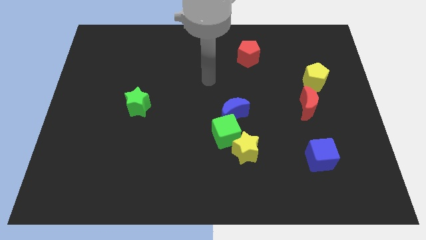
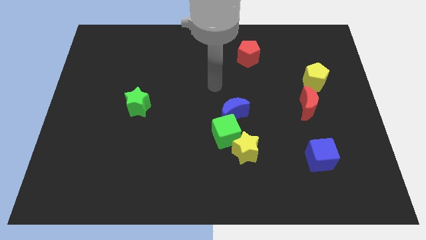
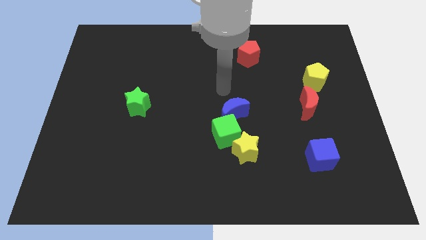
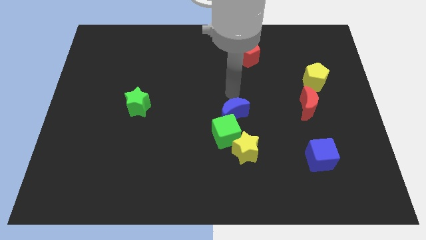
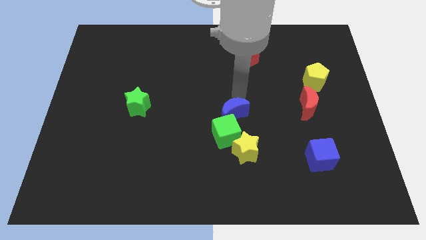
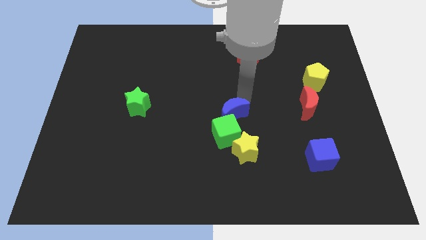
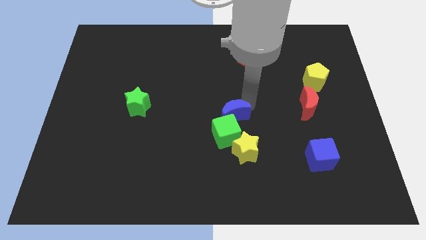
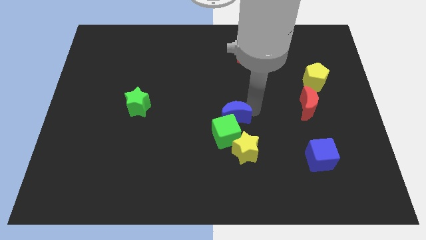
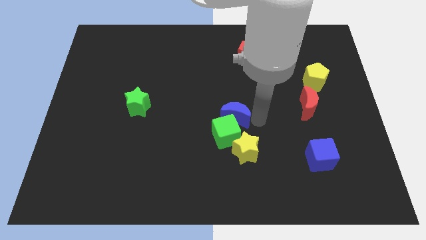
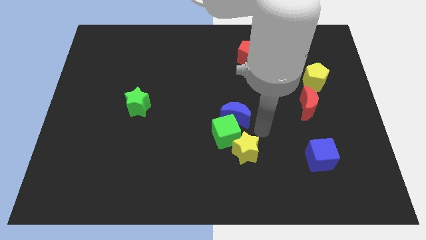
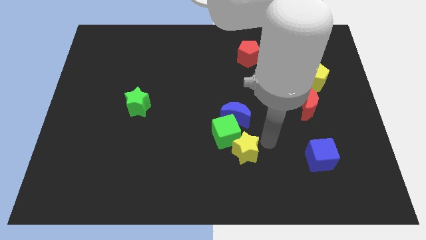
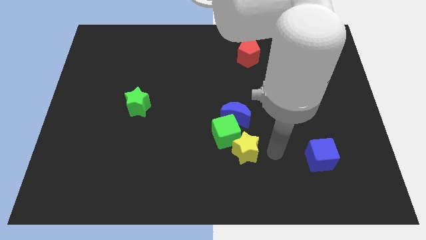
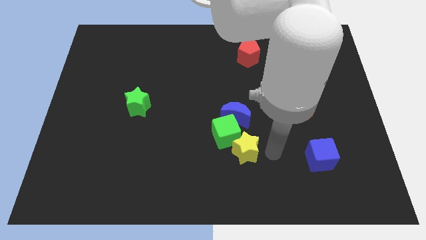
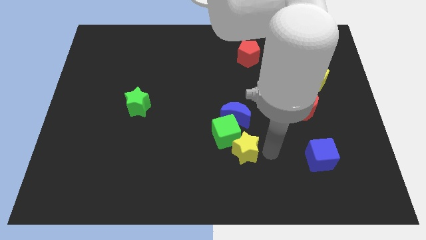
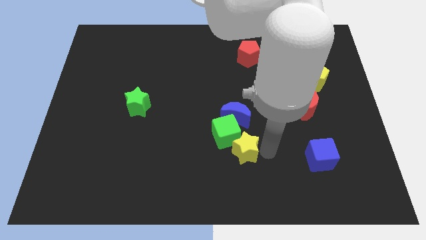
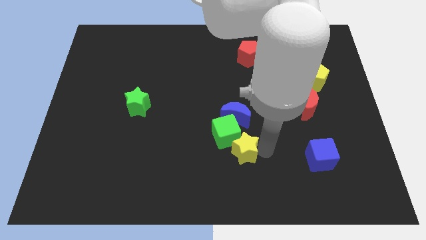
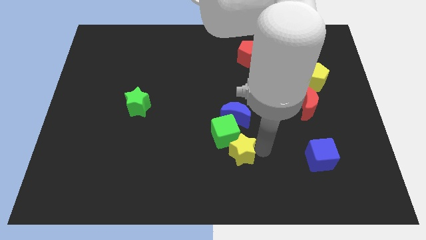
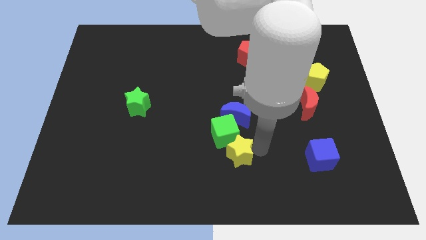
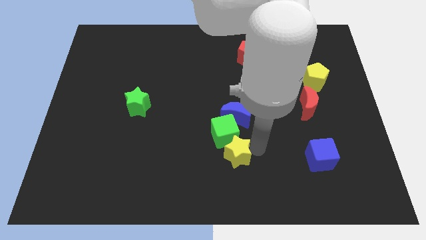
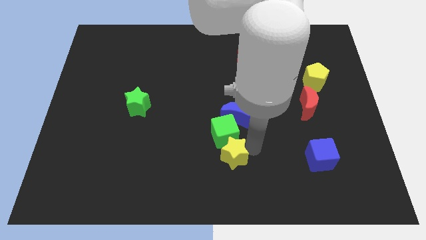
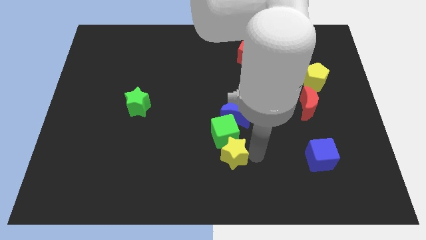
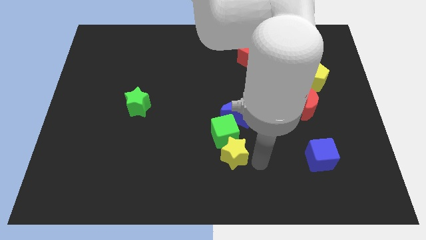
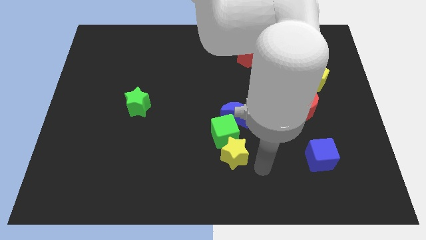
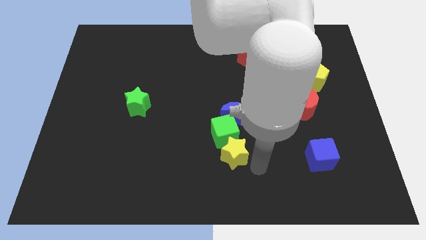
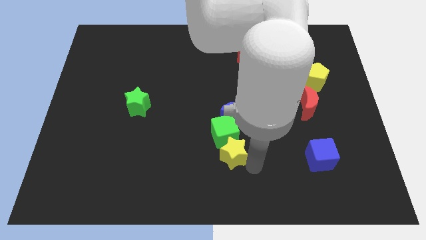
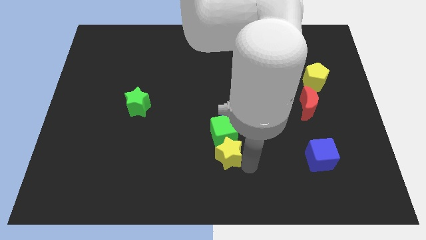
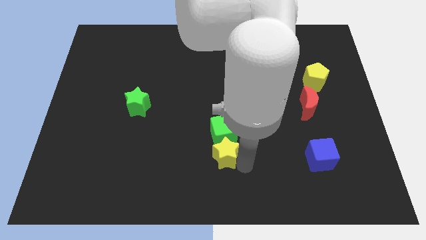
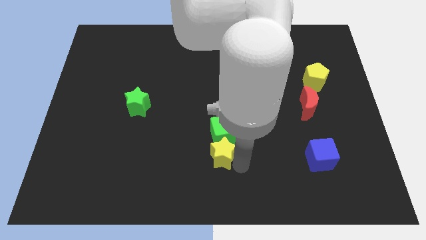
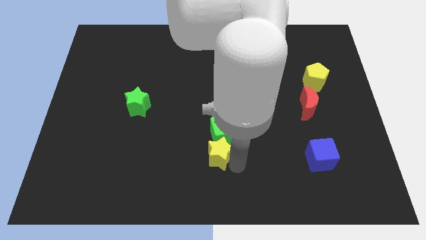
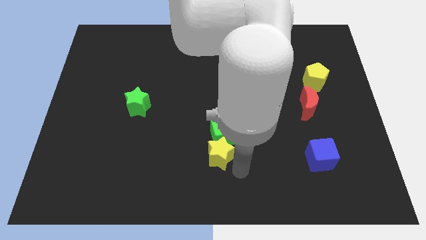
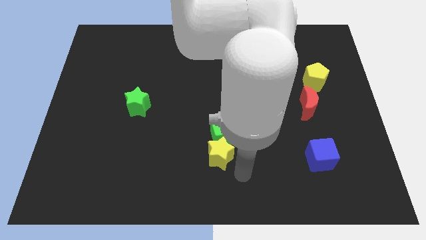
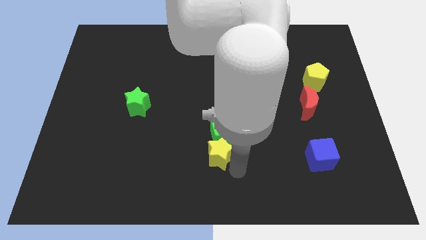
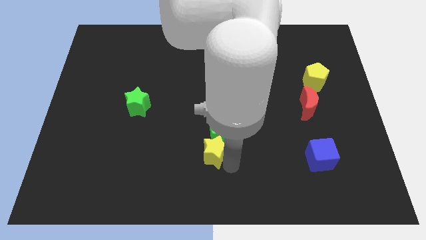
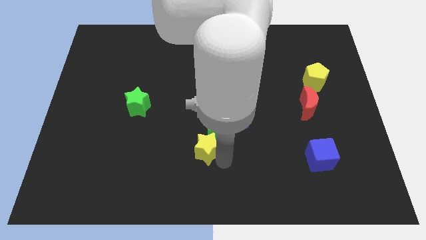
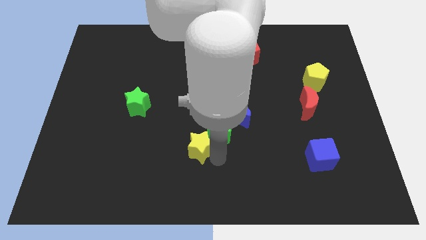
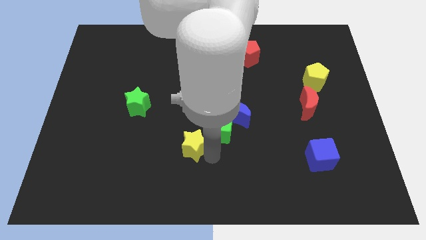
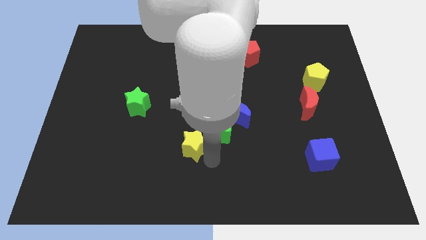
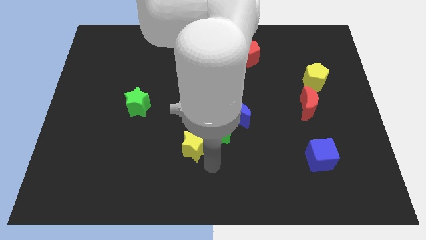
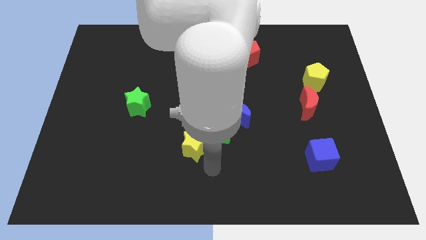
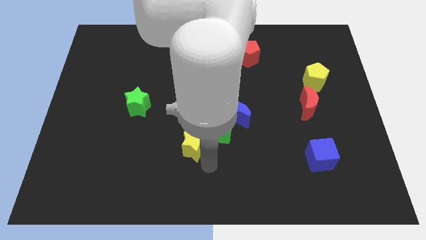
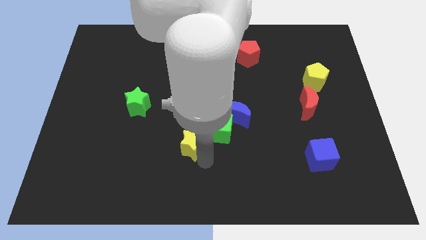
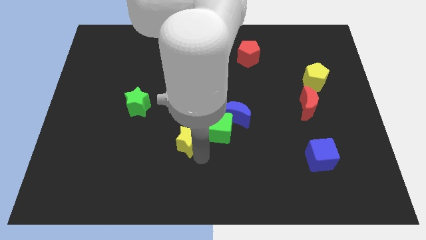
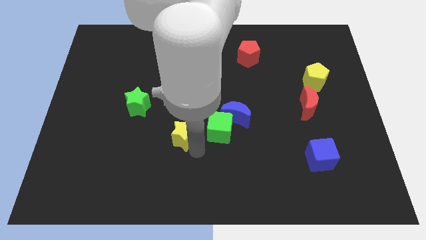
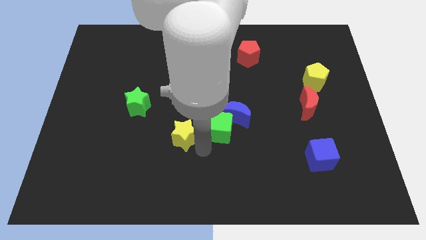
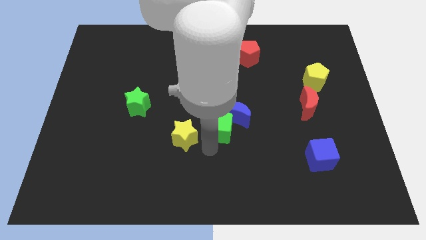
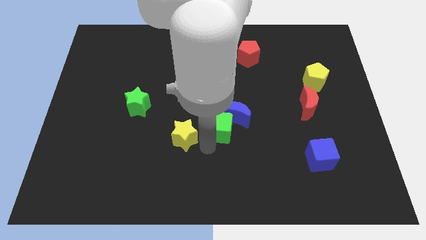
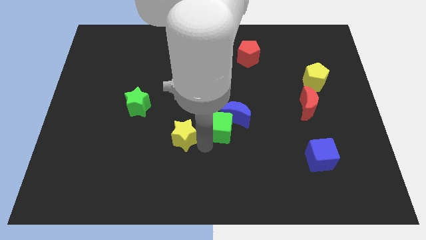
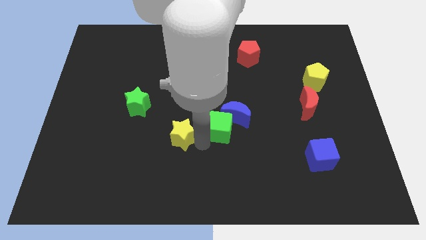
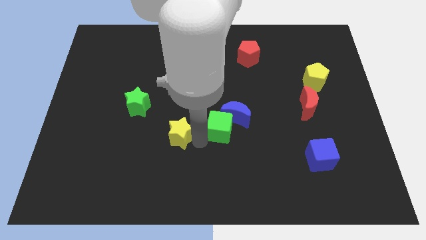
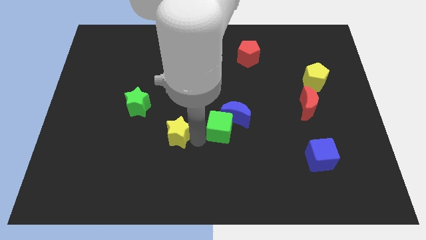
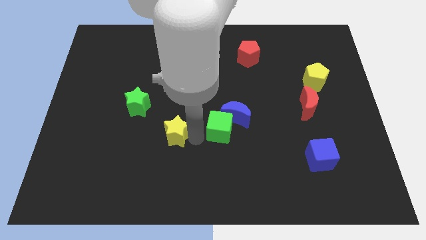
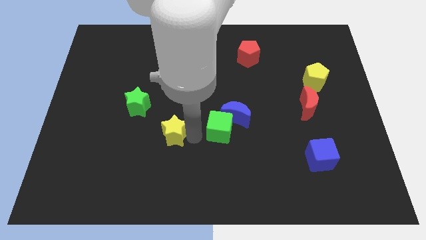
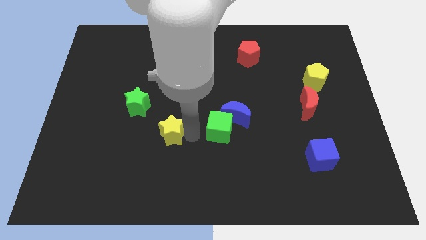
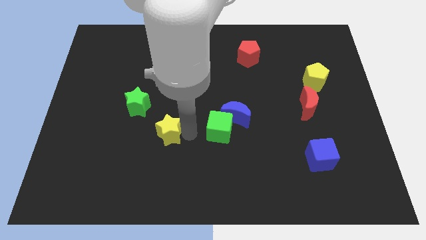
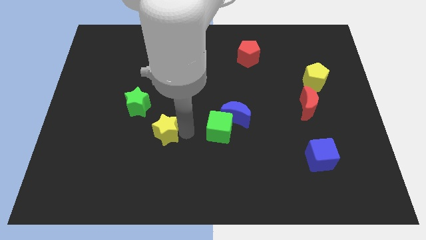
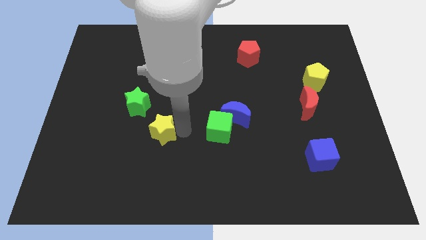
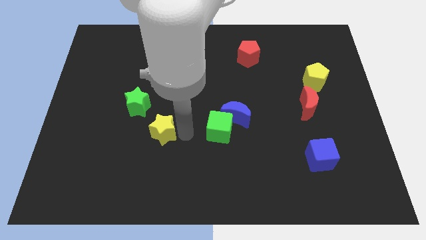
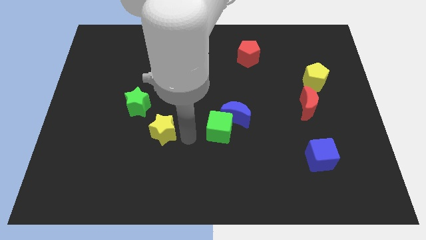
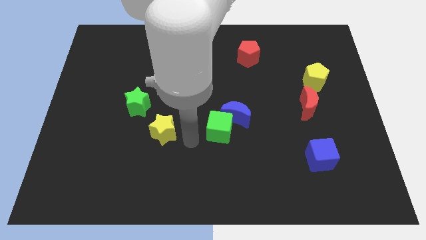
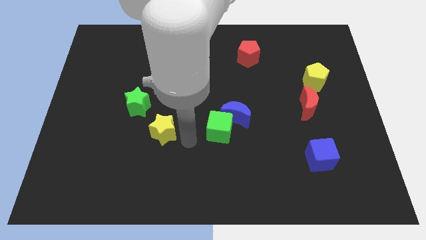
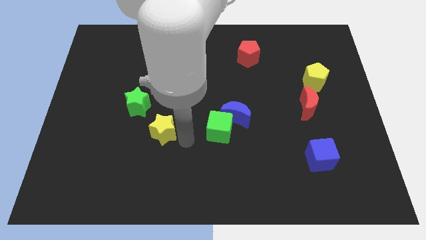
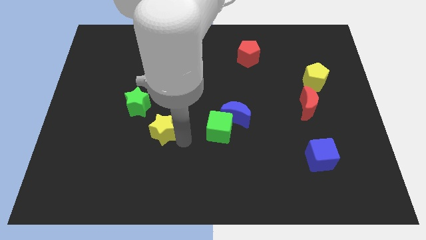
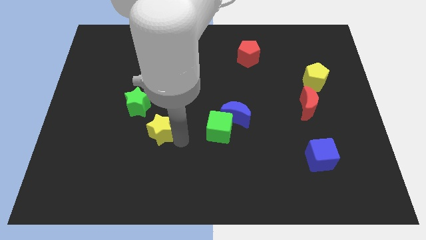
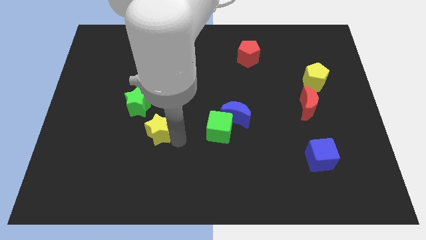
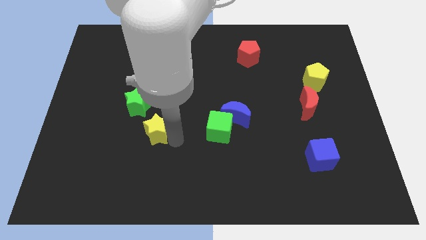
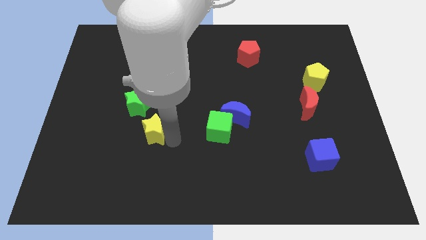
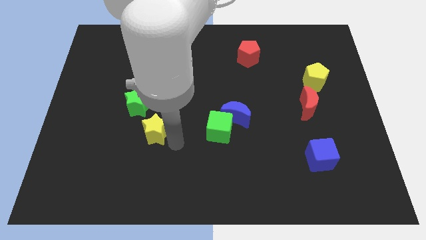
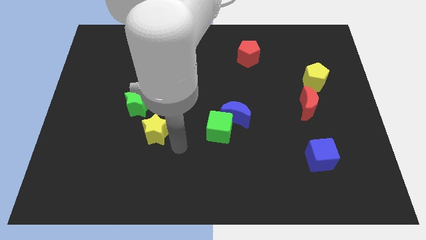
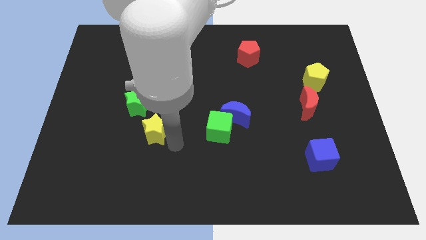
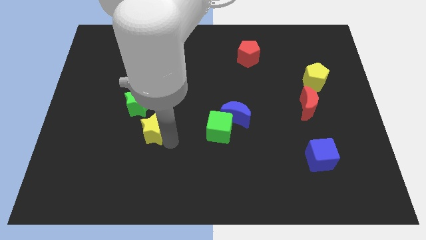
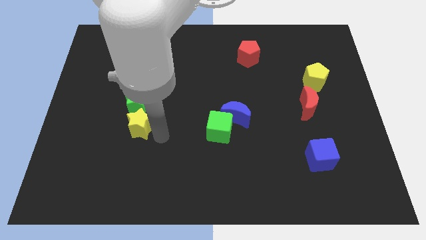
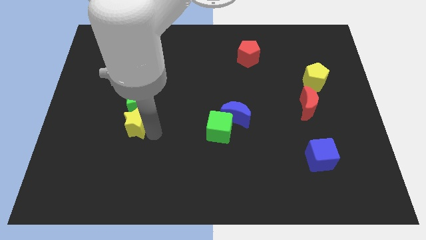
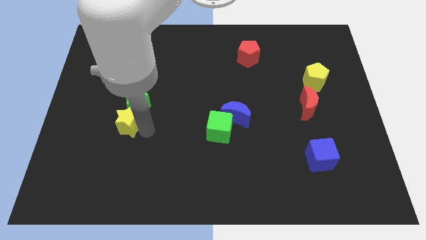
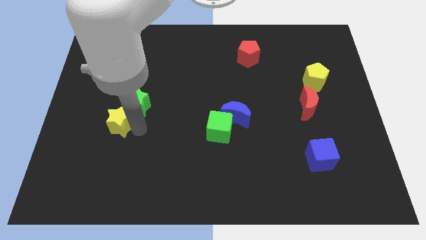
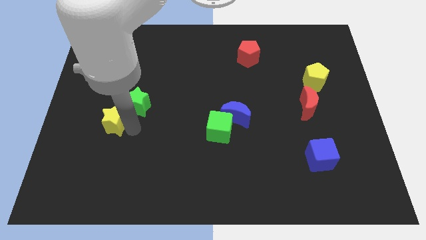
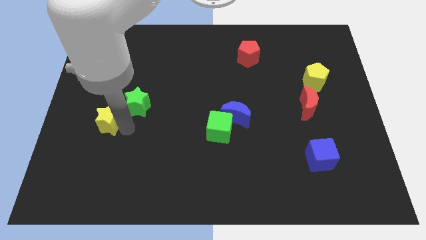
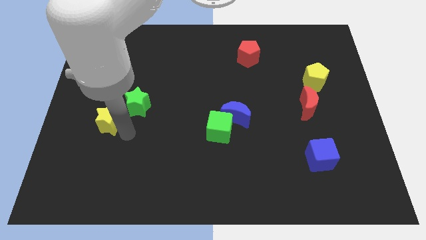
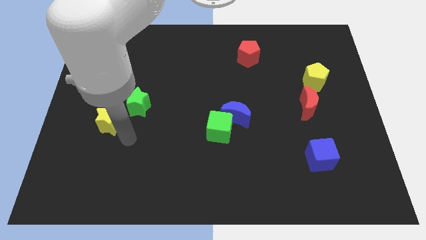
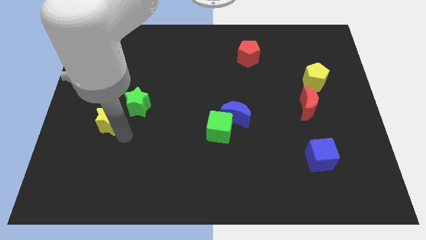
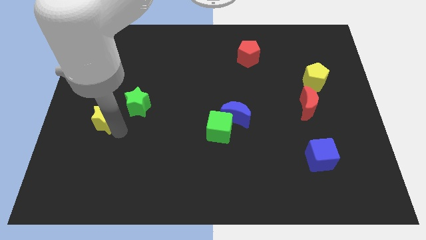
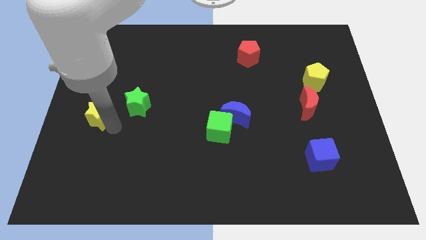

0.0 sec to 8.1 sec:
move the yellow star to the center left
